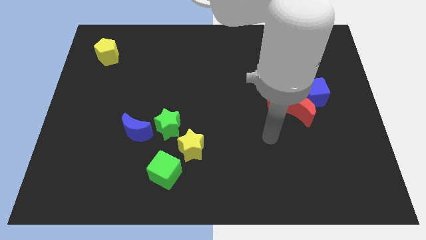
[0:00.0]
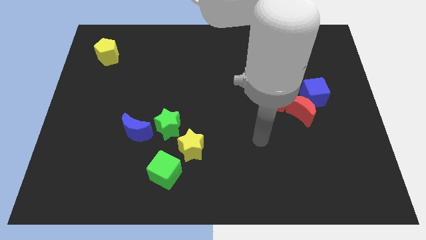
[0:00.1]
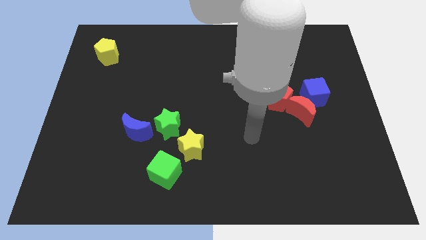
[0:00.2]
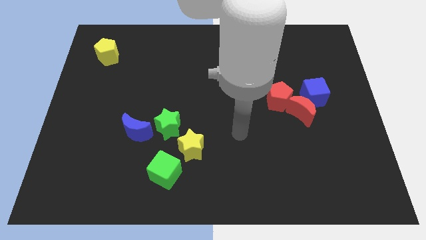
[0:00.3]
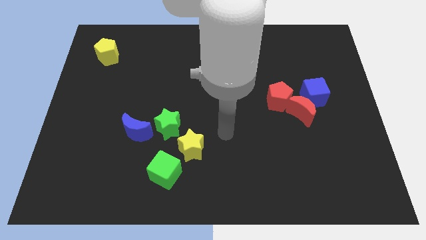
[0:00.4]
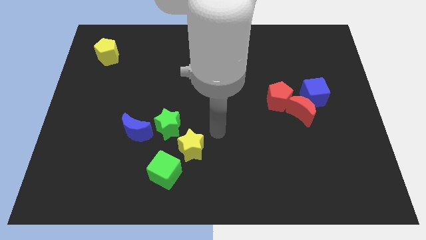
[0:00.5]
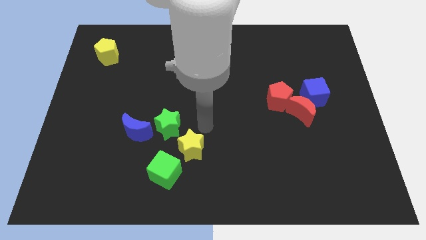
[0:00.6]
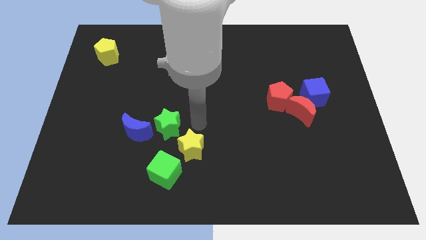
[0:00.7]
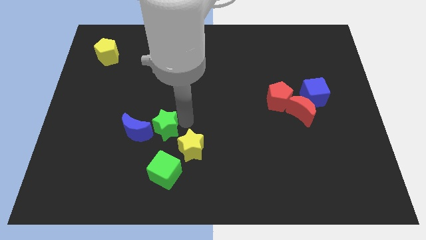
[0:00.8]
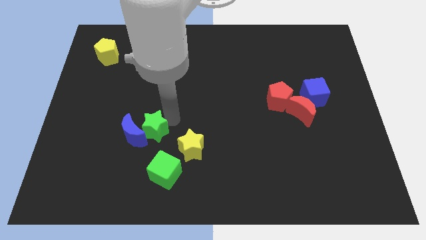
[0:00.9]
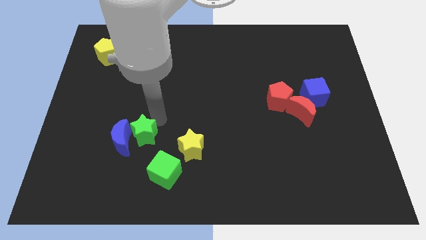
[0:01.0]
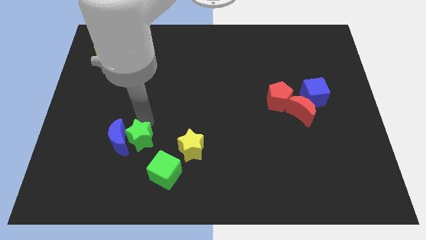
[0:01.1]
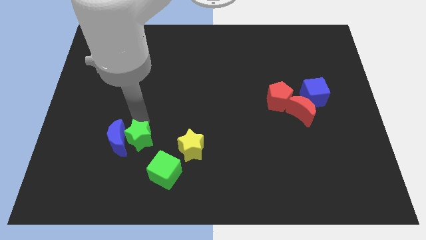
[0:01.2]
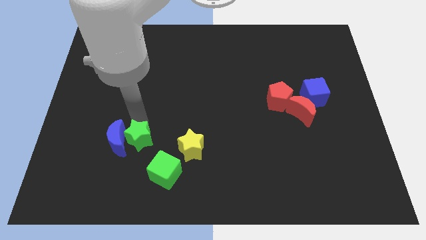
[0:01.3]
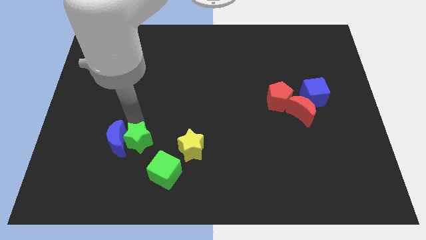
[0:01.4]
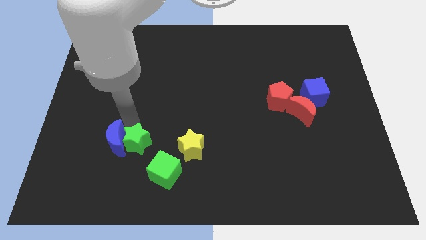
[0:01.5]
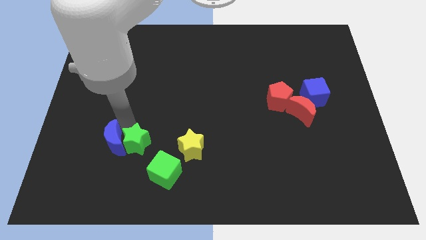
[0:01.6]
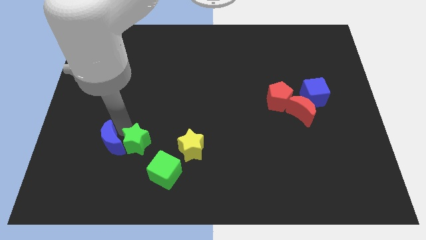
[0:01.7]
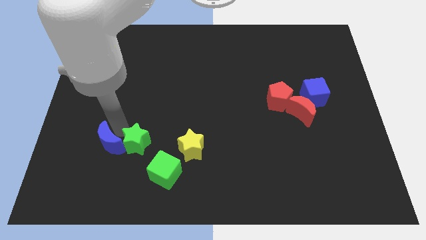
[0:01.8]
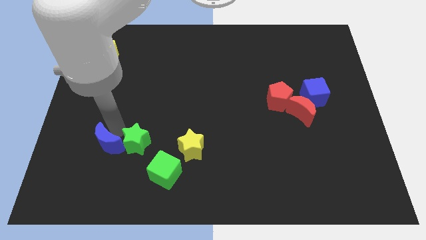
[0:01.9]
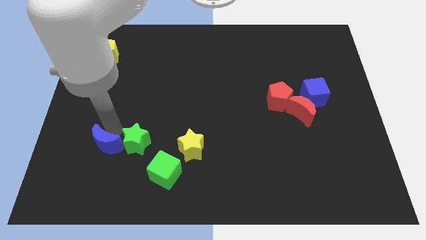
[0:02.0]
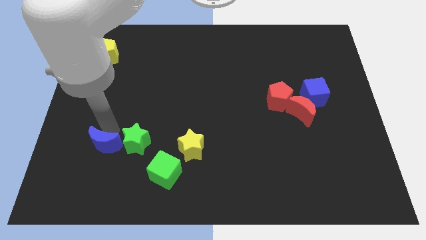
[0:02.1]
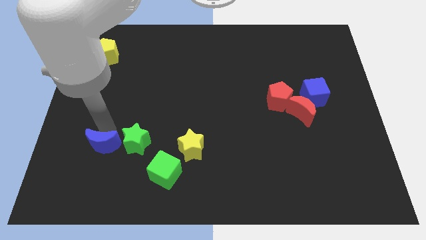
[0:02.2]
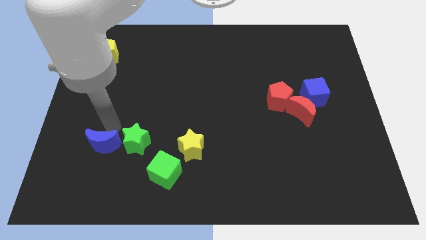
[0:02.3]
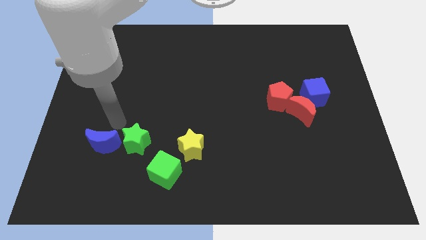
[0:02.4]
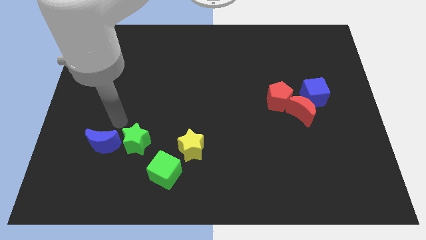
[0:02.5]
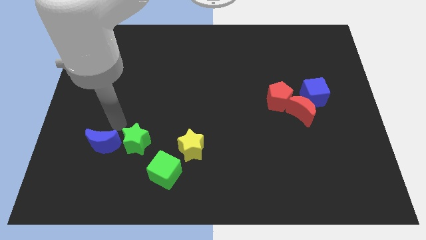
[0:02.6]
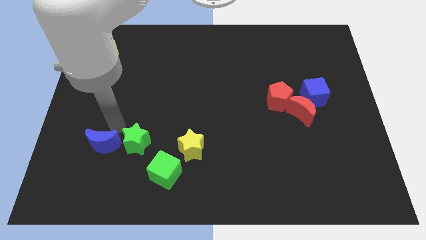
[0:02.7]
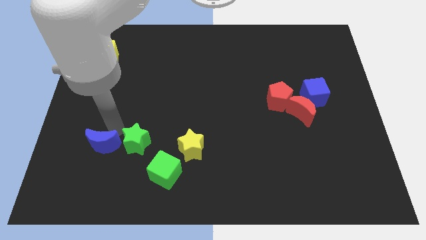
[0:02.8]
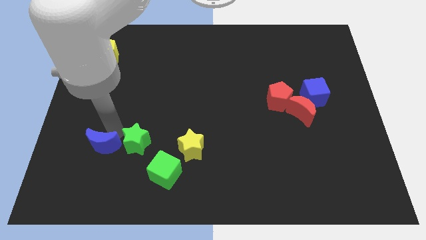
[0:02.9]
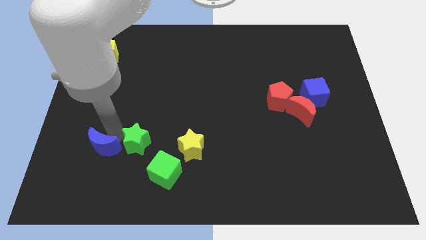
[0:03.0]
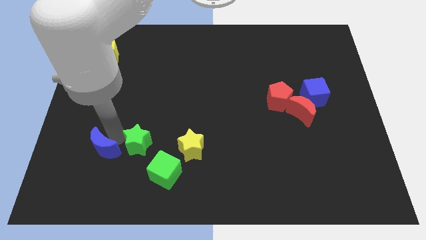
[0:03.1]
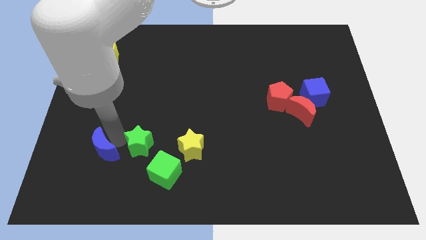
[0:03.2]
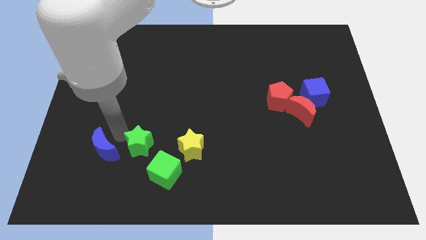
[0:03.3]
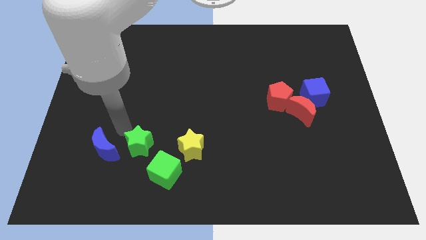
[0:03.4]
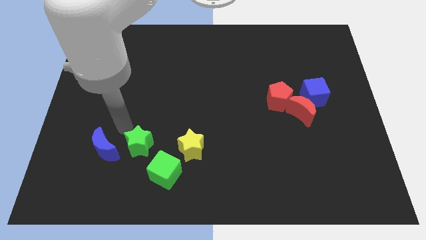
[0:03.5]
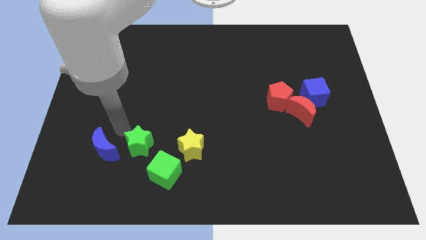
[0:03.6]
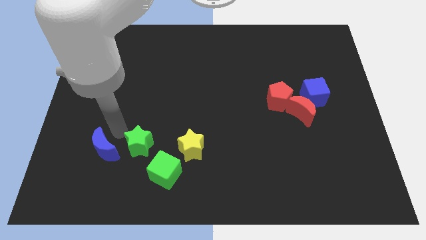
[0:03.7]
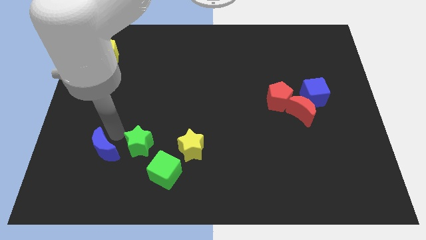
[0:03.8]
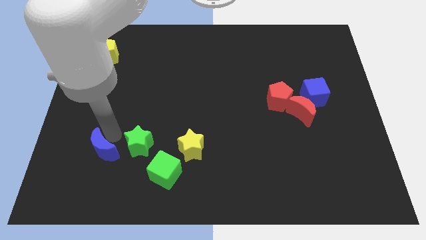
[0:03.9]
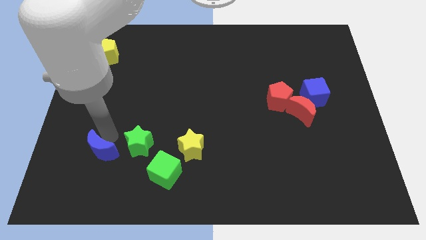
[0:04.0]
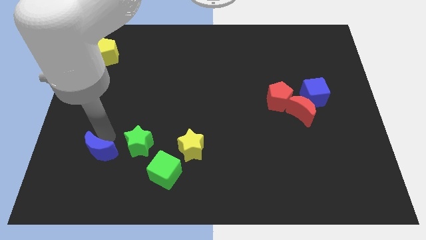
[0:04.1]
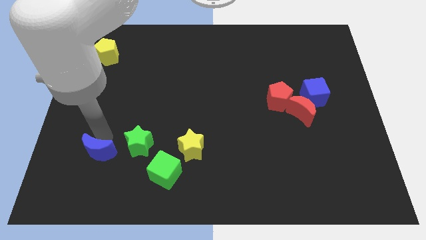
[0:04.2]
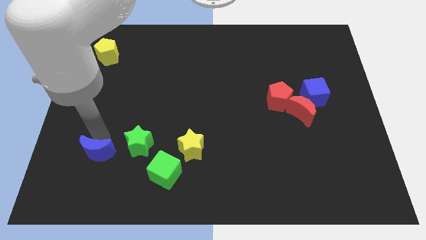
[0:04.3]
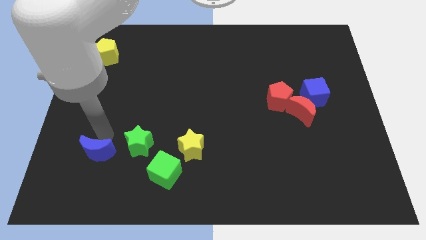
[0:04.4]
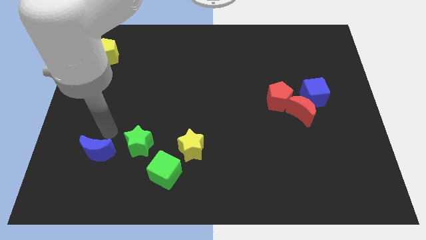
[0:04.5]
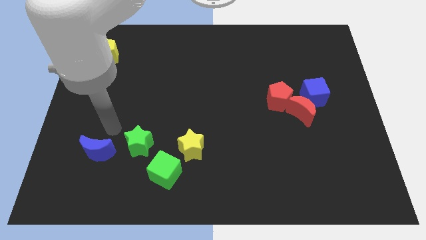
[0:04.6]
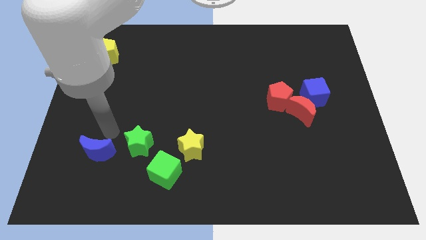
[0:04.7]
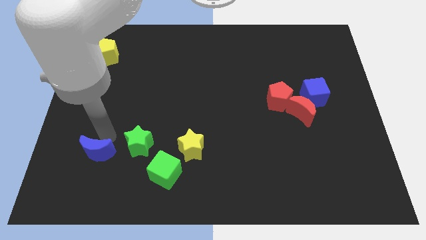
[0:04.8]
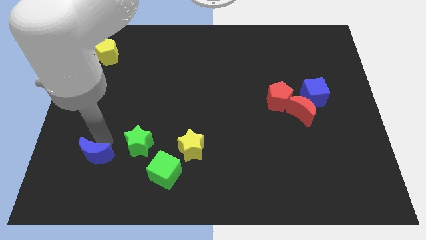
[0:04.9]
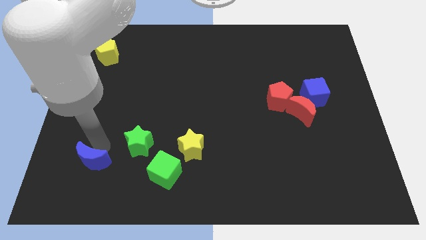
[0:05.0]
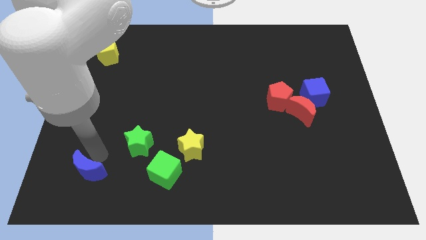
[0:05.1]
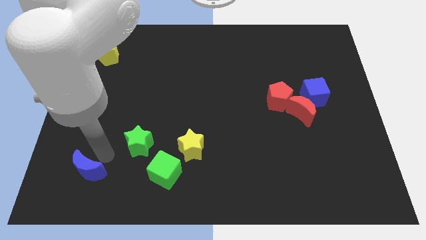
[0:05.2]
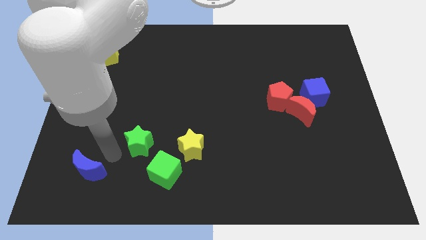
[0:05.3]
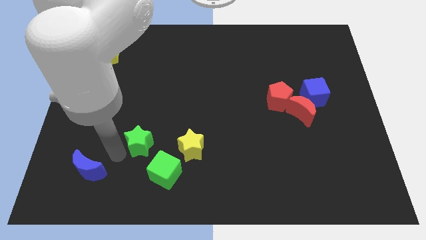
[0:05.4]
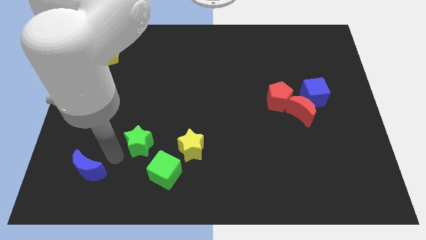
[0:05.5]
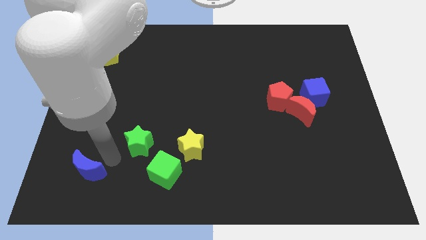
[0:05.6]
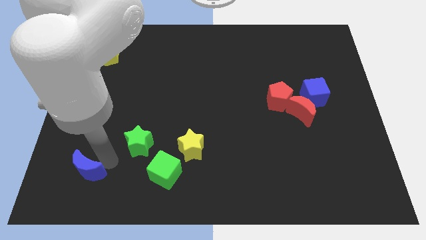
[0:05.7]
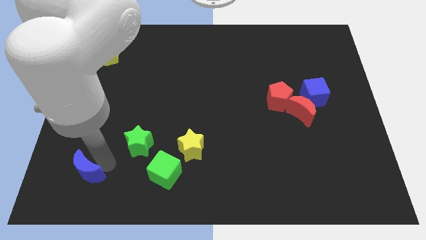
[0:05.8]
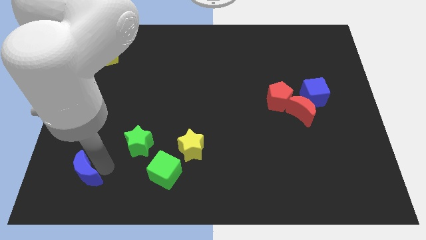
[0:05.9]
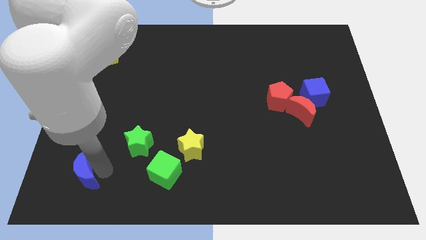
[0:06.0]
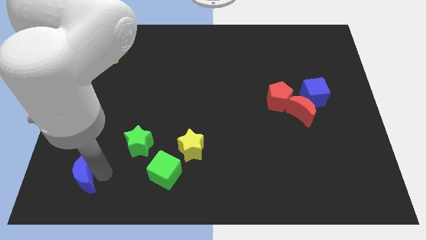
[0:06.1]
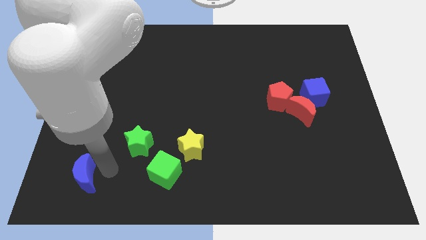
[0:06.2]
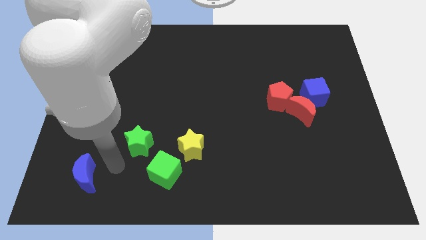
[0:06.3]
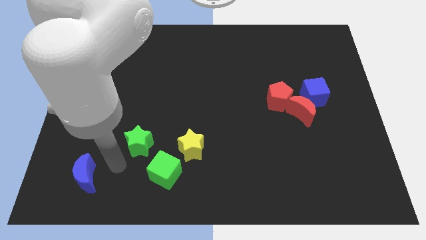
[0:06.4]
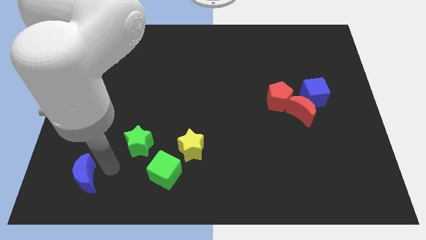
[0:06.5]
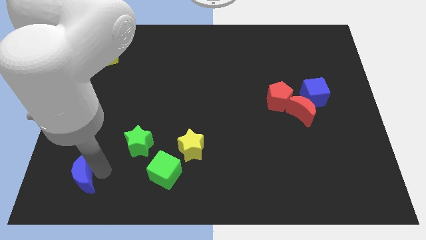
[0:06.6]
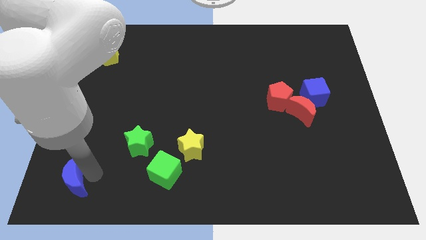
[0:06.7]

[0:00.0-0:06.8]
put the blue moon to the bottom left
